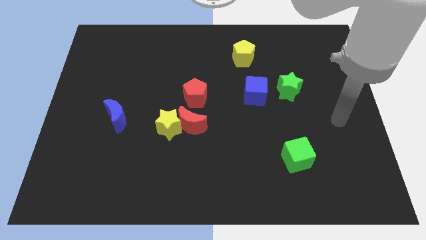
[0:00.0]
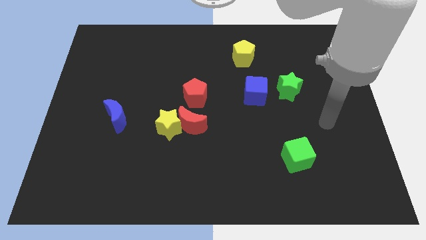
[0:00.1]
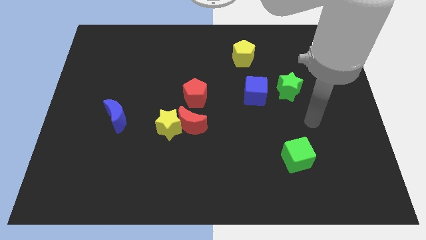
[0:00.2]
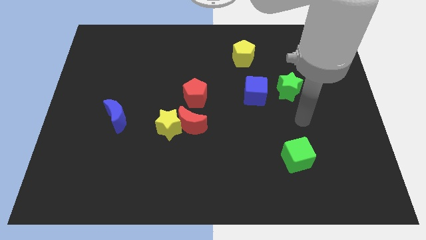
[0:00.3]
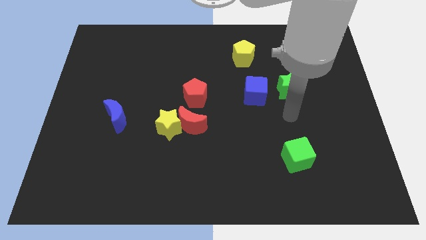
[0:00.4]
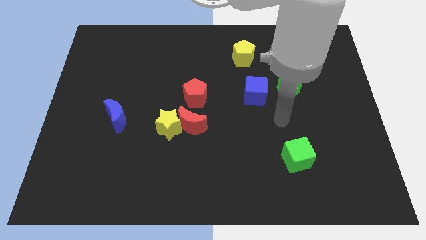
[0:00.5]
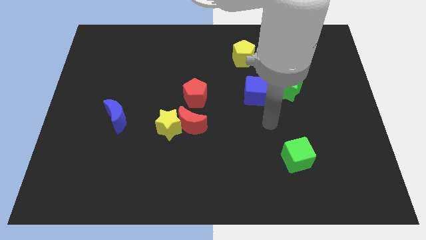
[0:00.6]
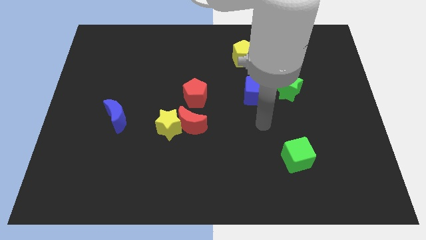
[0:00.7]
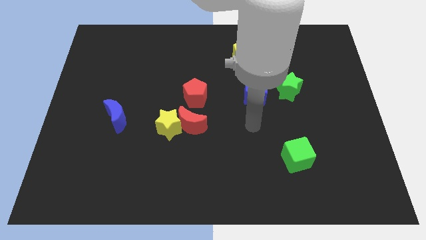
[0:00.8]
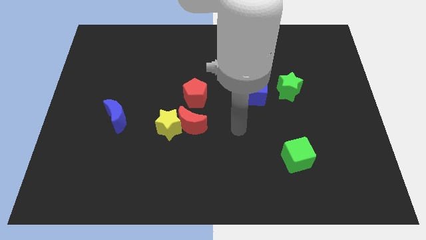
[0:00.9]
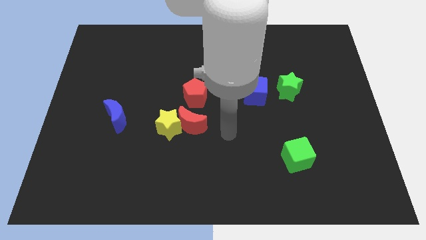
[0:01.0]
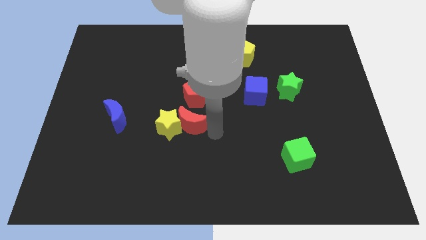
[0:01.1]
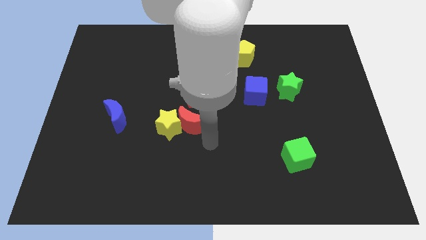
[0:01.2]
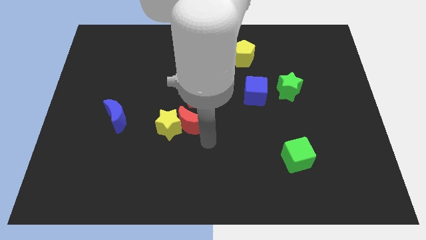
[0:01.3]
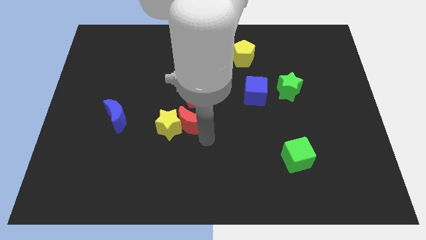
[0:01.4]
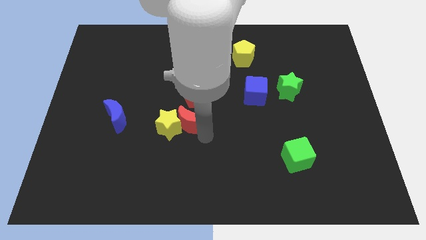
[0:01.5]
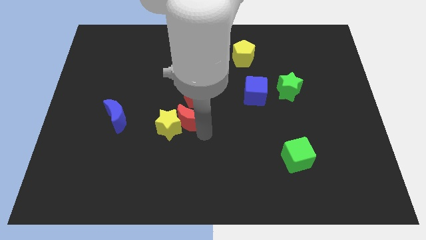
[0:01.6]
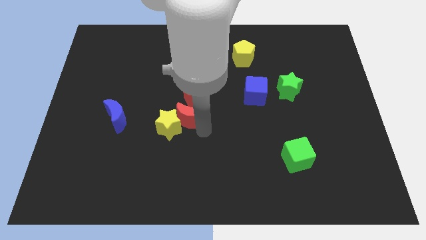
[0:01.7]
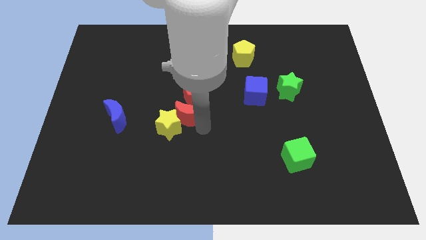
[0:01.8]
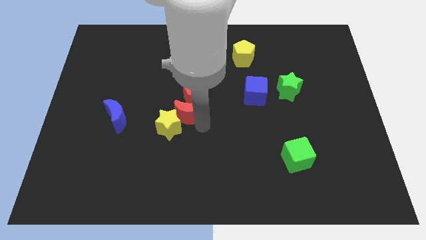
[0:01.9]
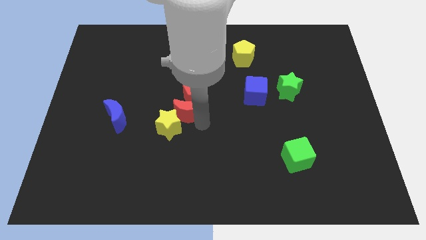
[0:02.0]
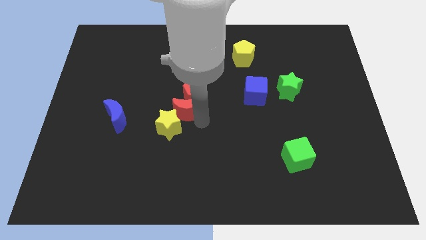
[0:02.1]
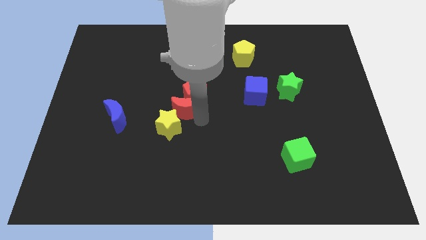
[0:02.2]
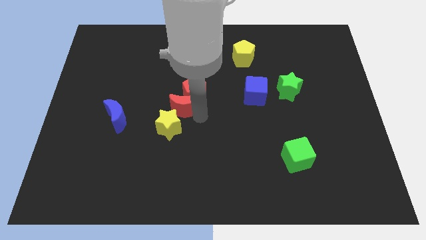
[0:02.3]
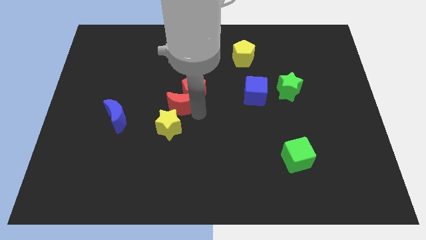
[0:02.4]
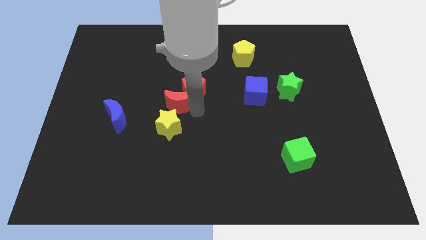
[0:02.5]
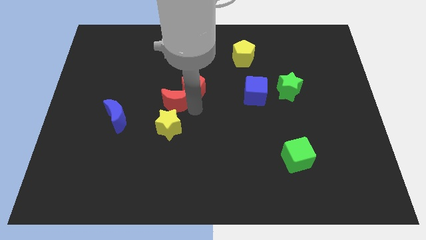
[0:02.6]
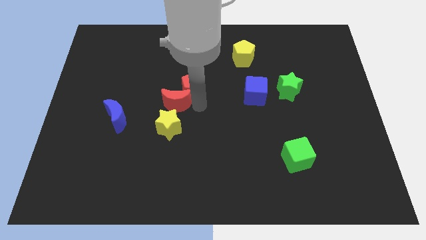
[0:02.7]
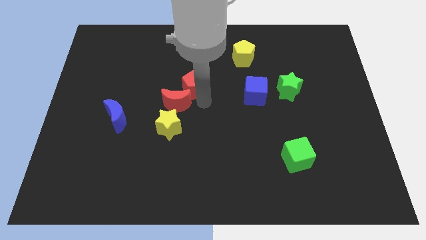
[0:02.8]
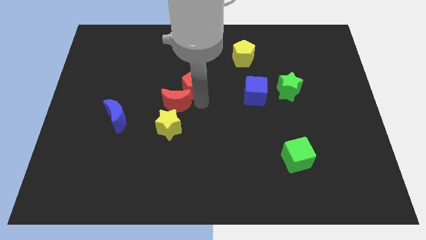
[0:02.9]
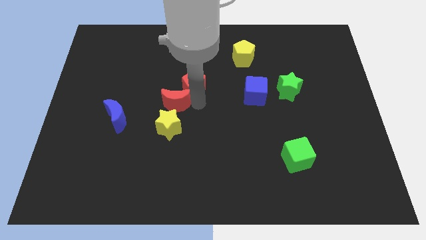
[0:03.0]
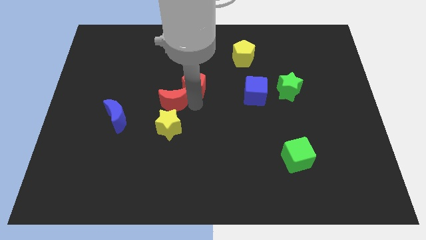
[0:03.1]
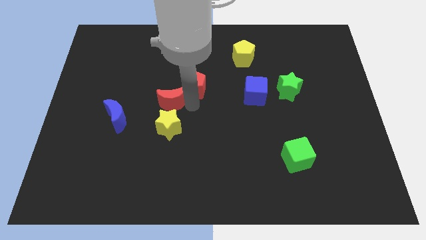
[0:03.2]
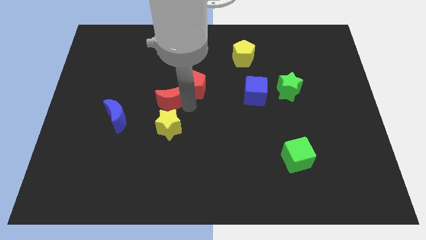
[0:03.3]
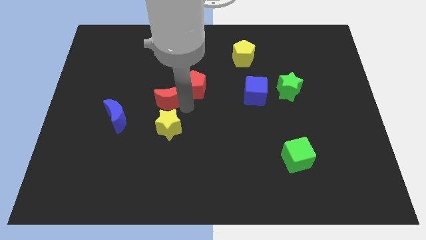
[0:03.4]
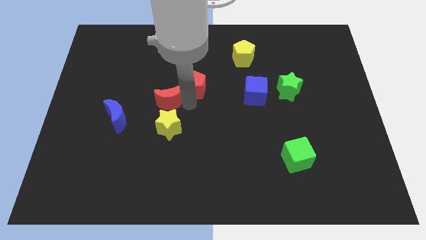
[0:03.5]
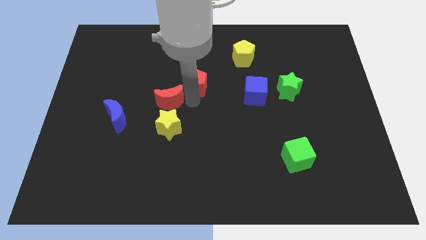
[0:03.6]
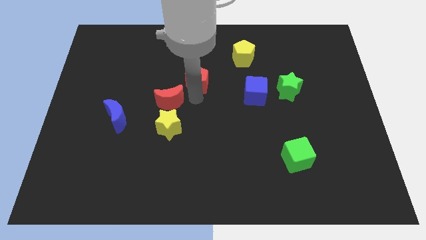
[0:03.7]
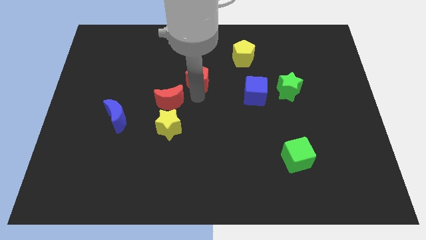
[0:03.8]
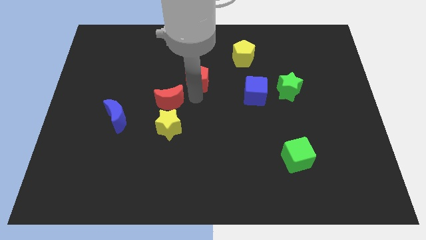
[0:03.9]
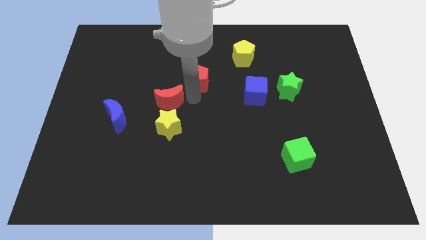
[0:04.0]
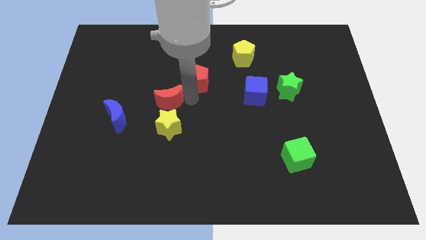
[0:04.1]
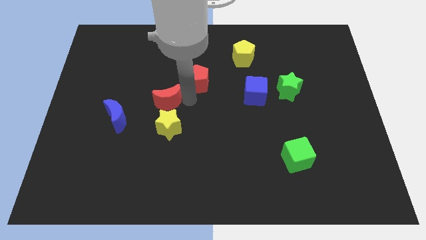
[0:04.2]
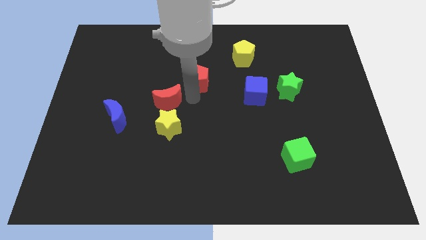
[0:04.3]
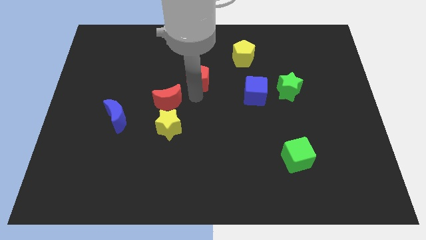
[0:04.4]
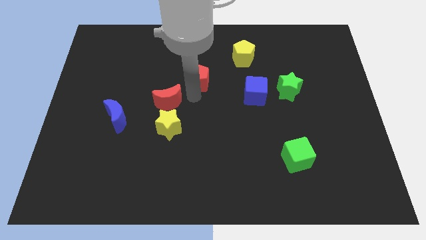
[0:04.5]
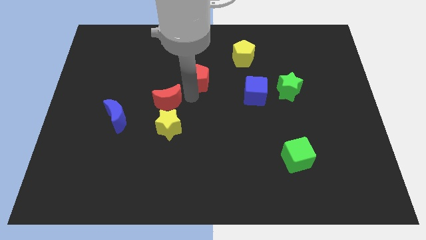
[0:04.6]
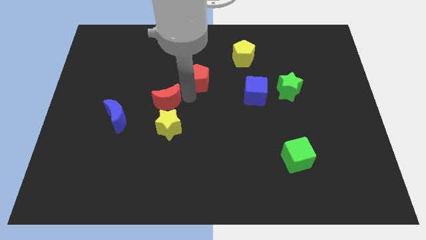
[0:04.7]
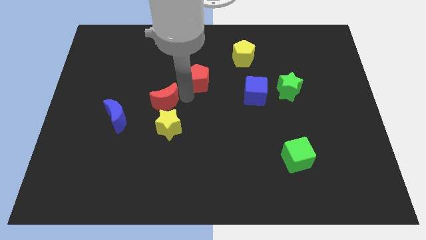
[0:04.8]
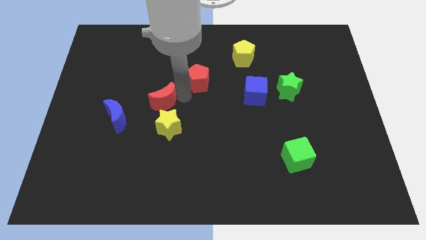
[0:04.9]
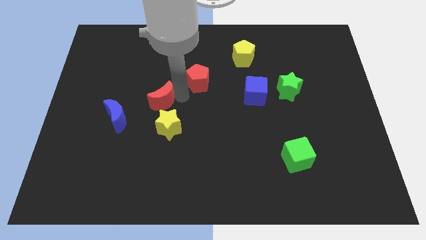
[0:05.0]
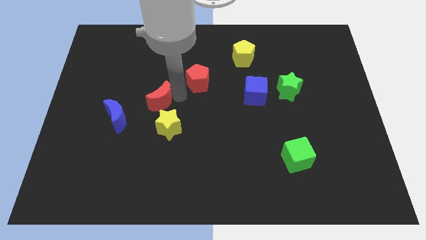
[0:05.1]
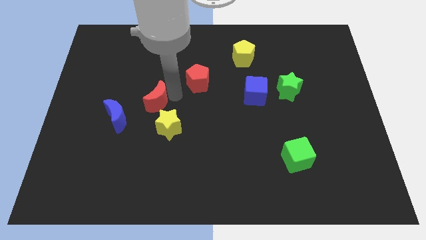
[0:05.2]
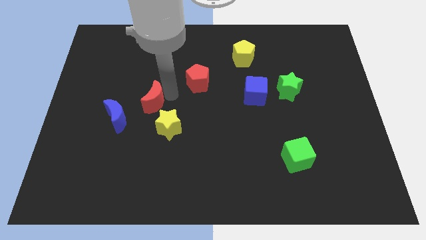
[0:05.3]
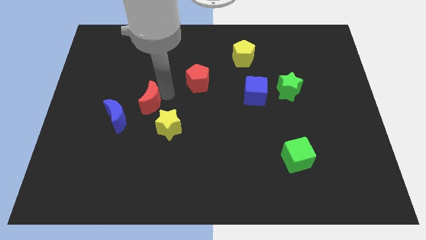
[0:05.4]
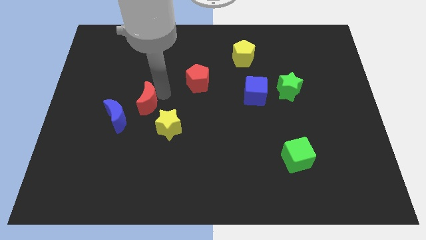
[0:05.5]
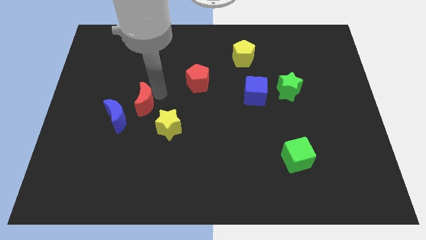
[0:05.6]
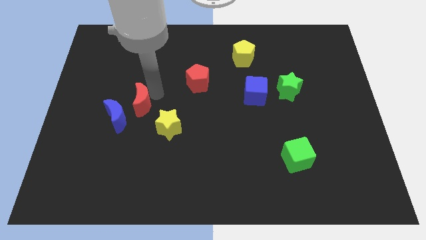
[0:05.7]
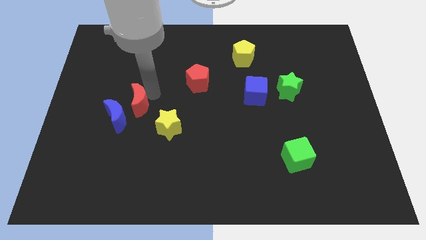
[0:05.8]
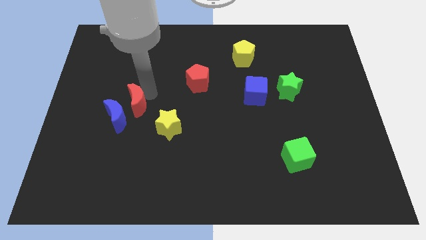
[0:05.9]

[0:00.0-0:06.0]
push the red moon to the blue moon
